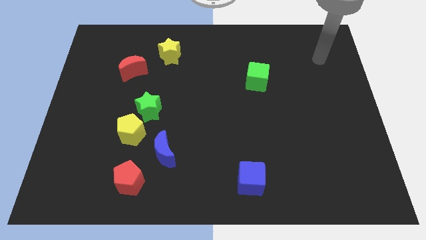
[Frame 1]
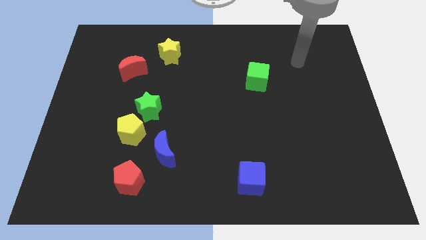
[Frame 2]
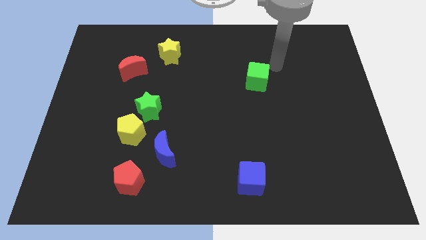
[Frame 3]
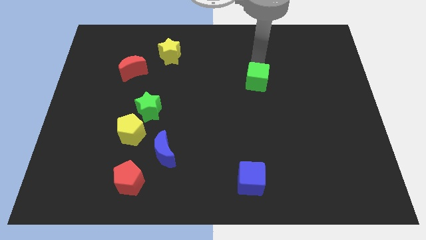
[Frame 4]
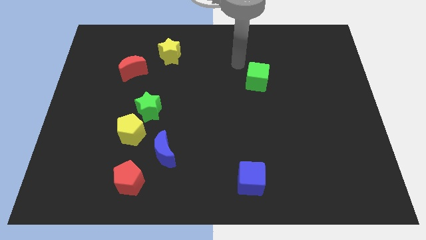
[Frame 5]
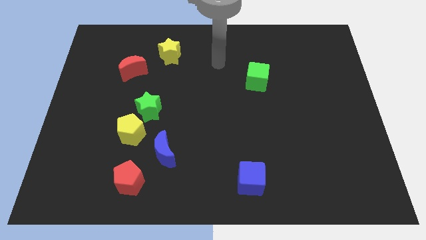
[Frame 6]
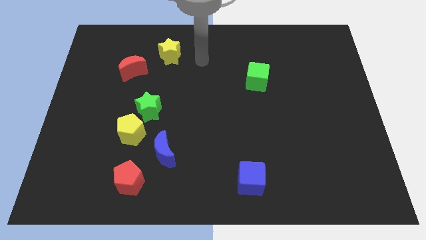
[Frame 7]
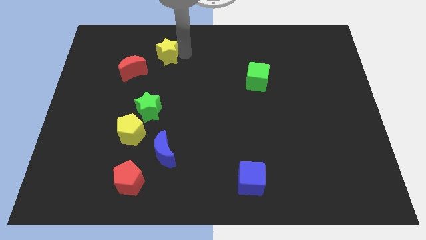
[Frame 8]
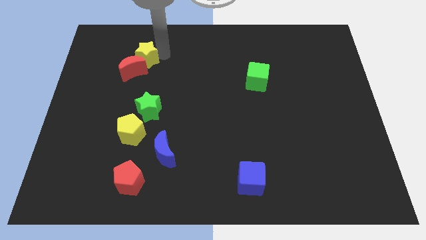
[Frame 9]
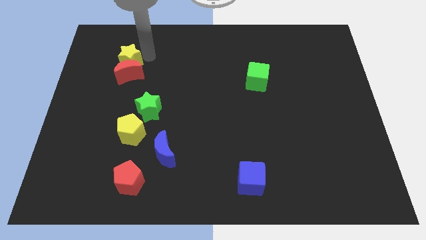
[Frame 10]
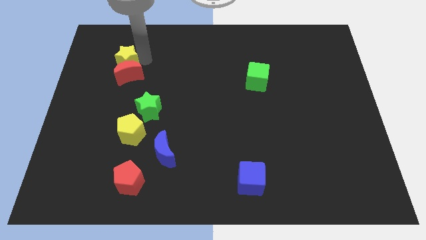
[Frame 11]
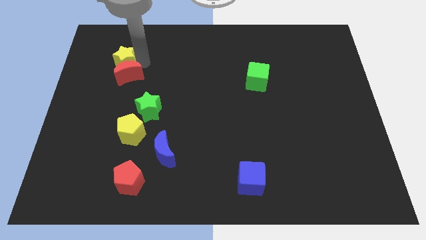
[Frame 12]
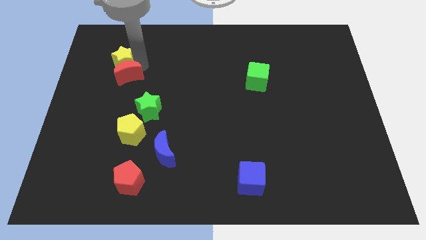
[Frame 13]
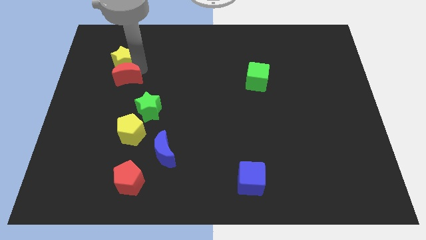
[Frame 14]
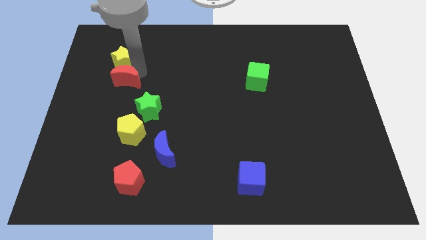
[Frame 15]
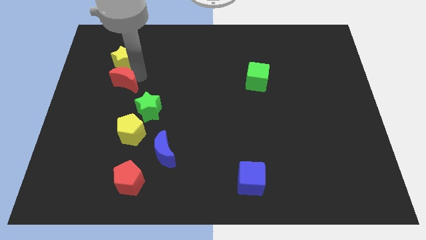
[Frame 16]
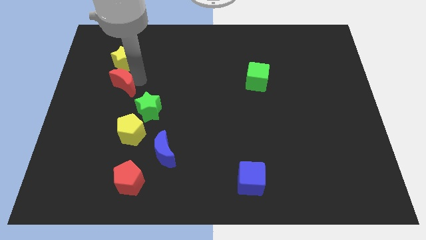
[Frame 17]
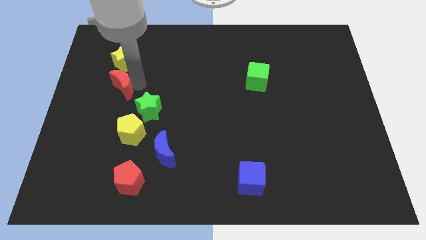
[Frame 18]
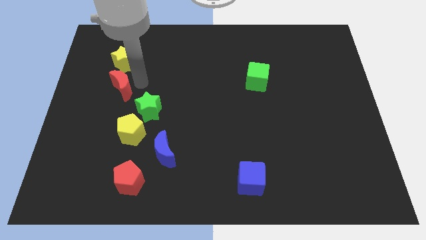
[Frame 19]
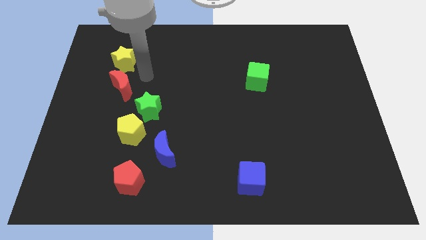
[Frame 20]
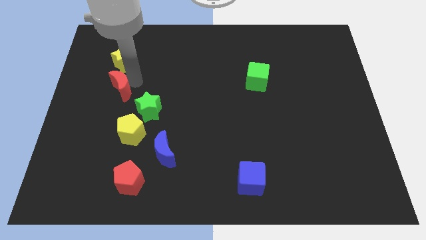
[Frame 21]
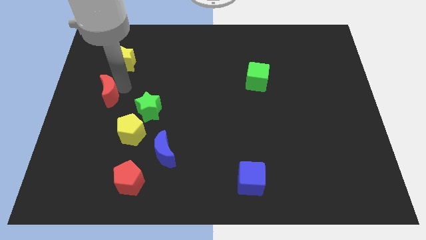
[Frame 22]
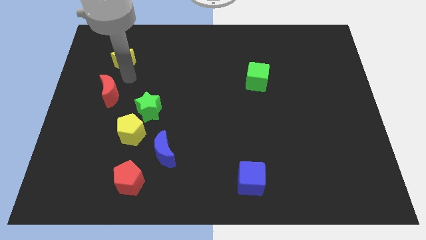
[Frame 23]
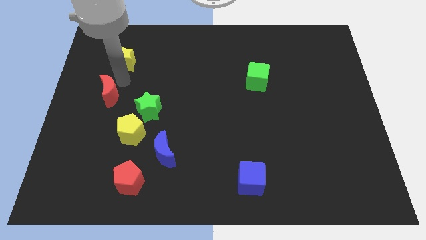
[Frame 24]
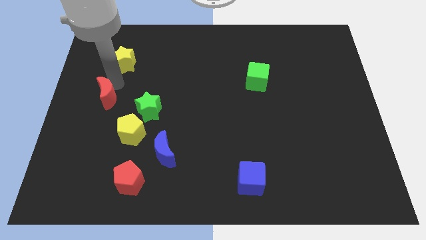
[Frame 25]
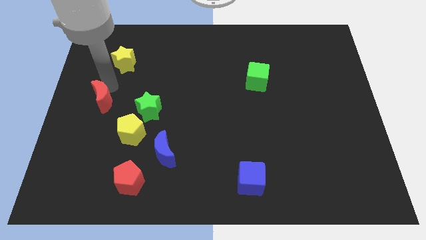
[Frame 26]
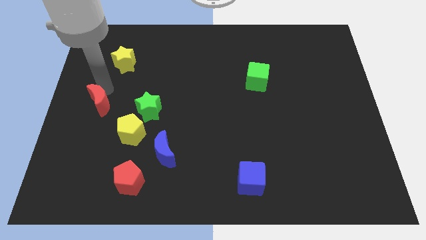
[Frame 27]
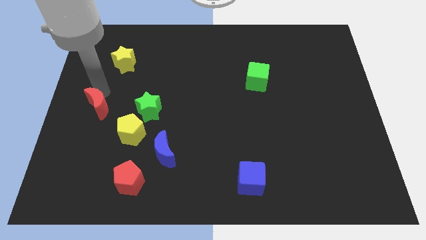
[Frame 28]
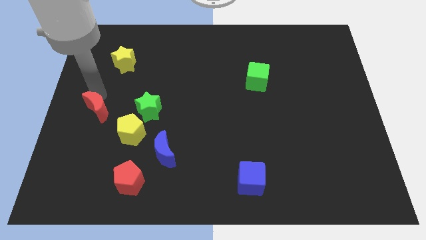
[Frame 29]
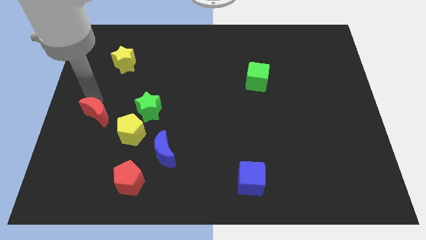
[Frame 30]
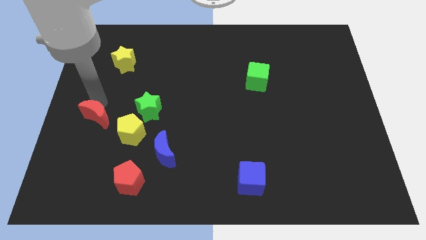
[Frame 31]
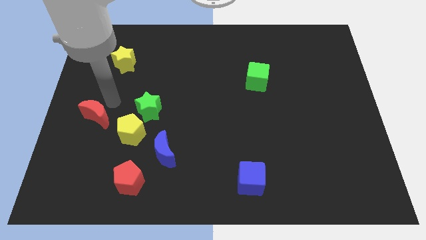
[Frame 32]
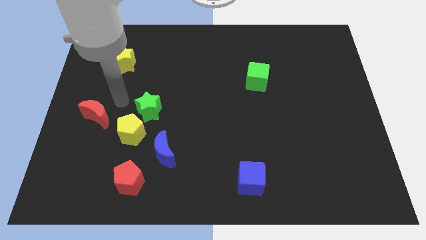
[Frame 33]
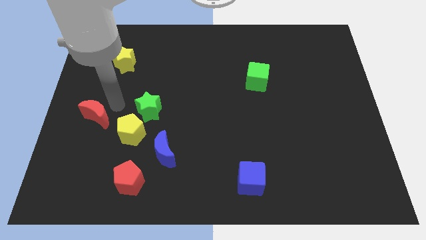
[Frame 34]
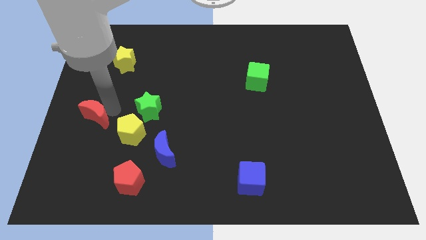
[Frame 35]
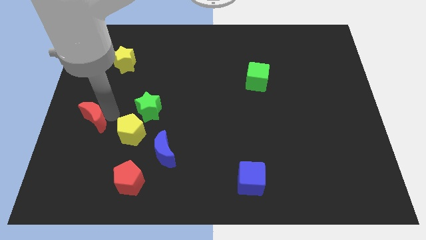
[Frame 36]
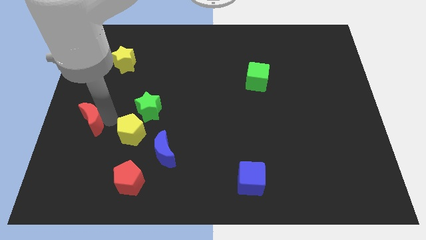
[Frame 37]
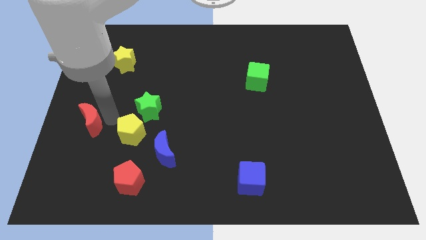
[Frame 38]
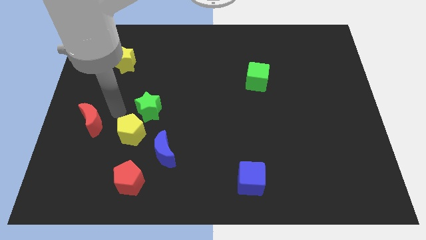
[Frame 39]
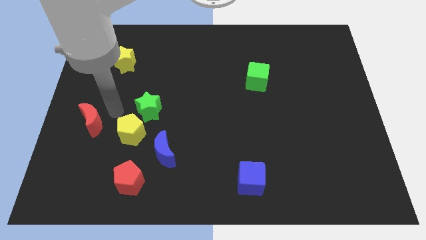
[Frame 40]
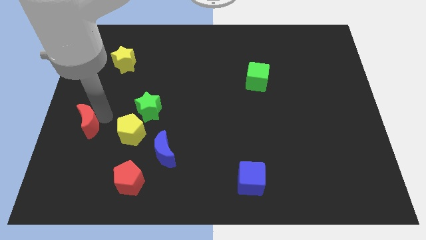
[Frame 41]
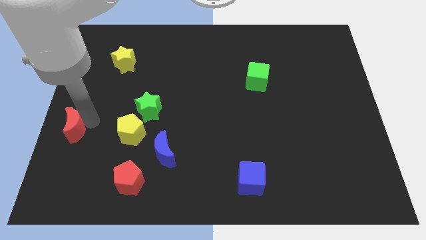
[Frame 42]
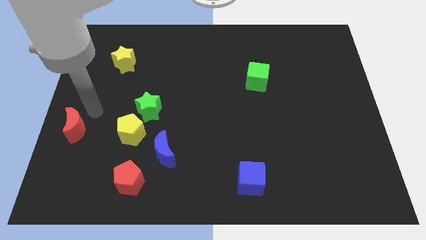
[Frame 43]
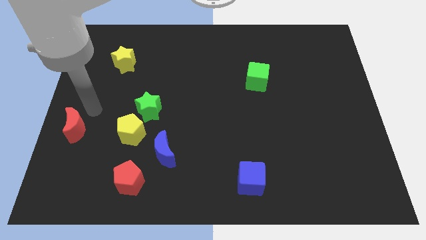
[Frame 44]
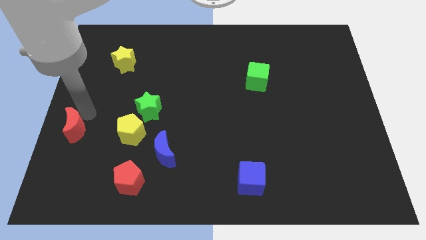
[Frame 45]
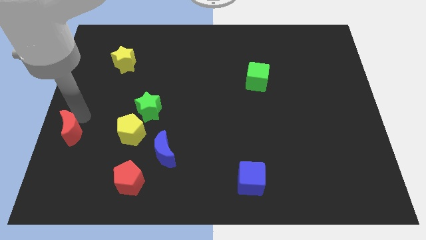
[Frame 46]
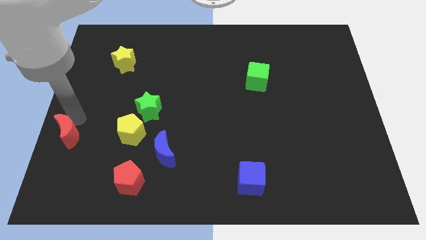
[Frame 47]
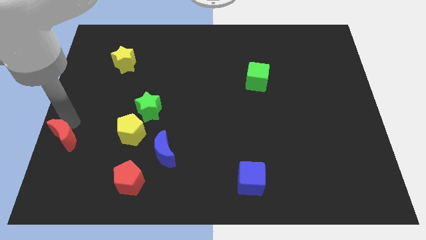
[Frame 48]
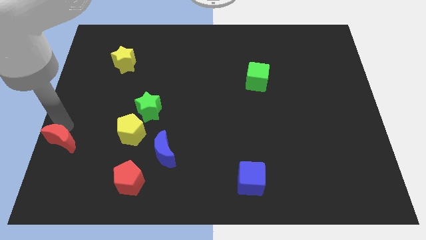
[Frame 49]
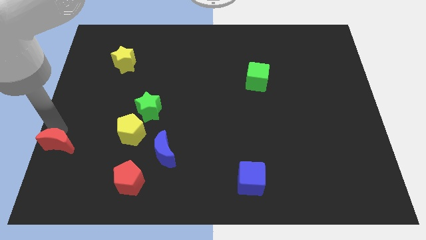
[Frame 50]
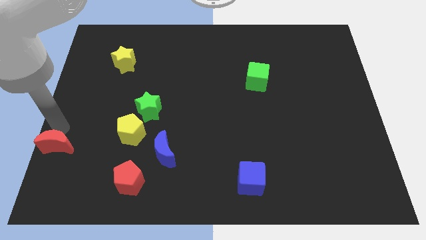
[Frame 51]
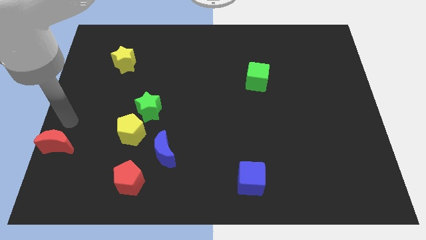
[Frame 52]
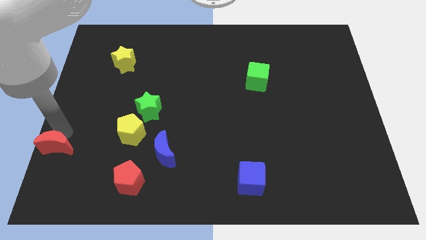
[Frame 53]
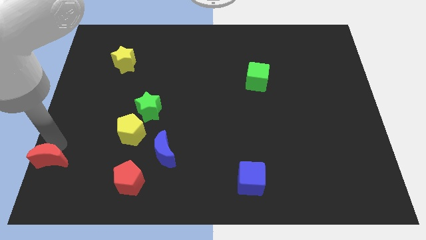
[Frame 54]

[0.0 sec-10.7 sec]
slide the red moon to the lower left corner

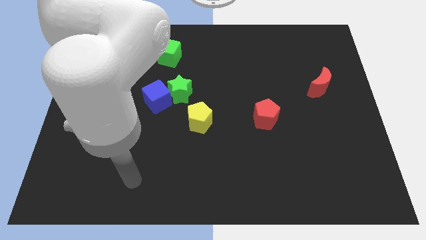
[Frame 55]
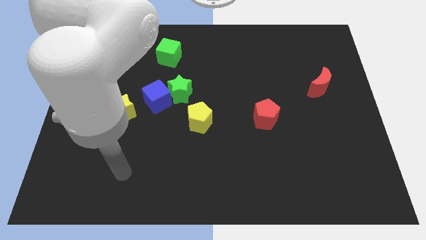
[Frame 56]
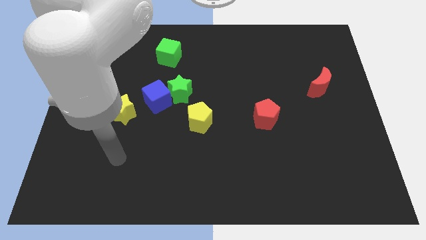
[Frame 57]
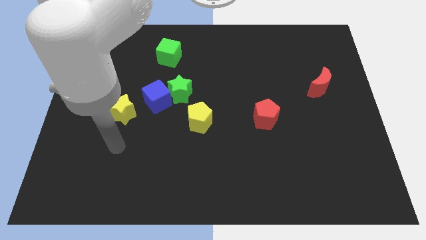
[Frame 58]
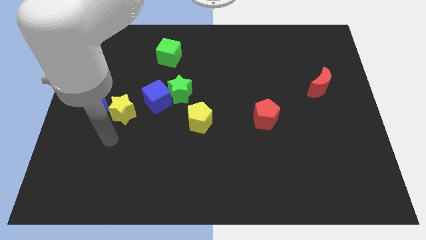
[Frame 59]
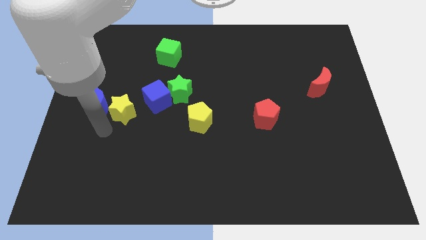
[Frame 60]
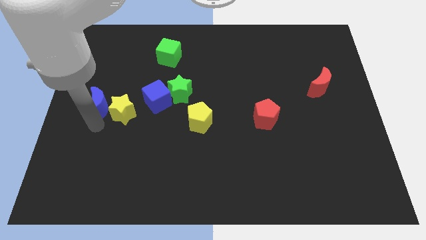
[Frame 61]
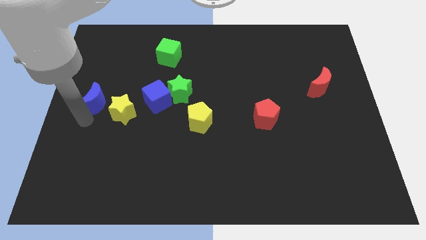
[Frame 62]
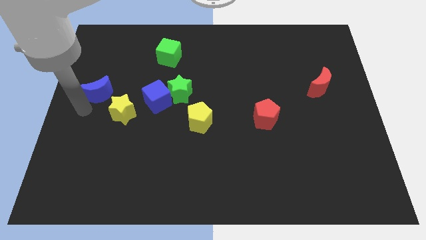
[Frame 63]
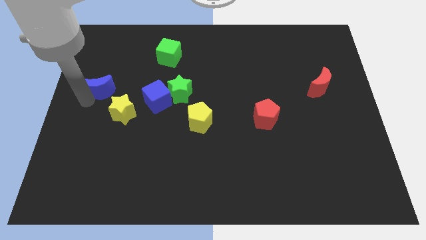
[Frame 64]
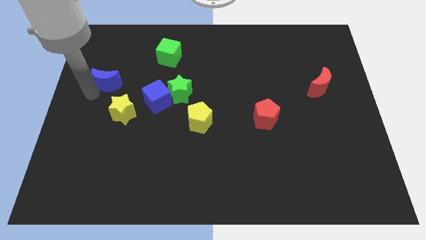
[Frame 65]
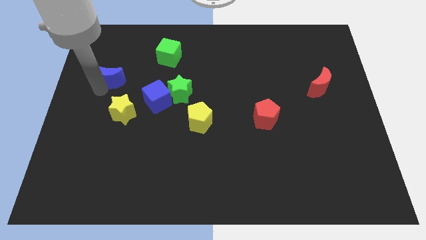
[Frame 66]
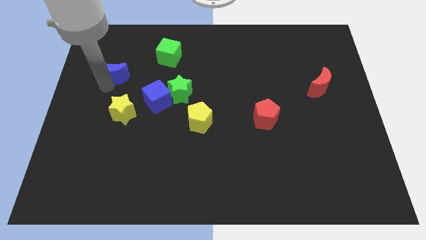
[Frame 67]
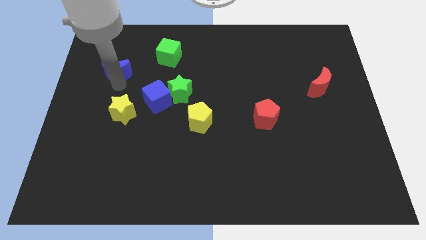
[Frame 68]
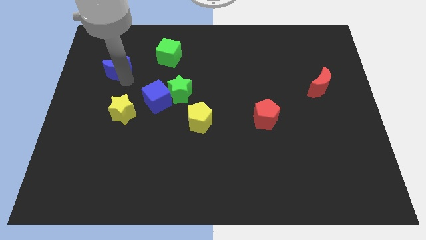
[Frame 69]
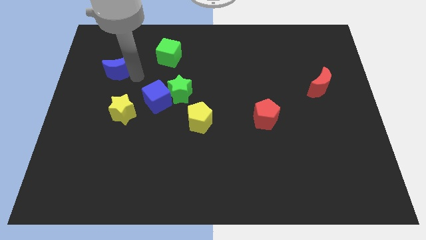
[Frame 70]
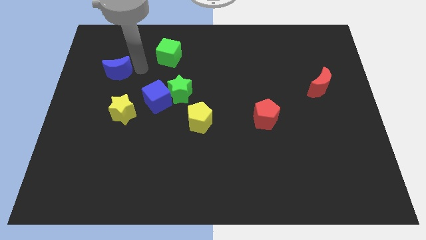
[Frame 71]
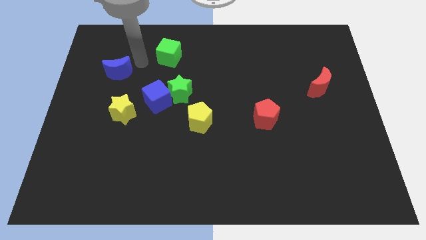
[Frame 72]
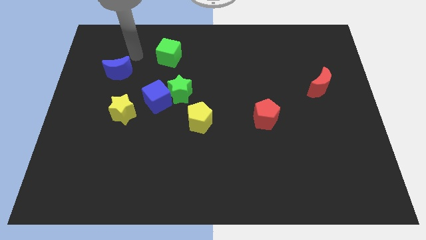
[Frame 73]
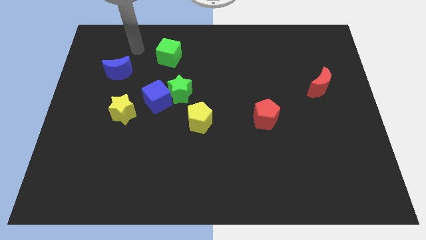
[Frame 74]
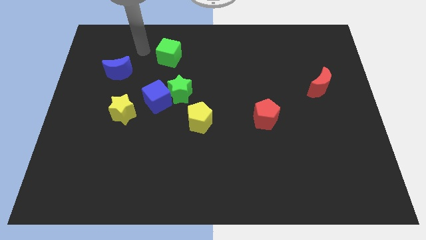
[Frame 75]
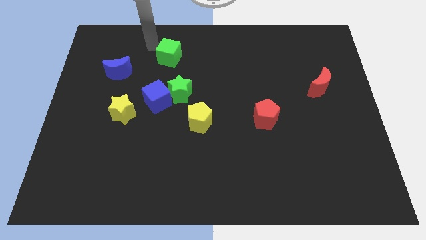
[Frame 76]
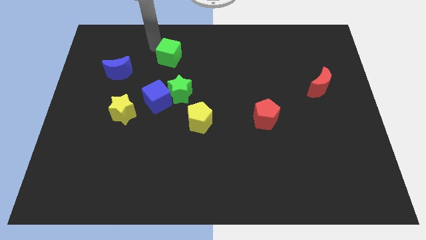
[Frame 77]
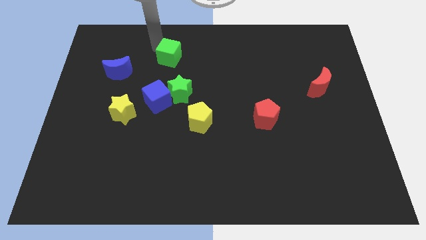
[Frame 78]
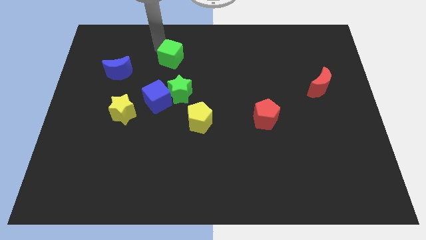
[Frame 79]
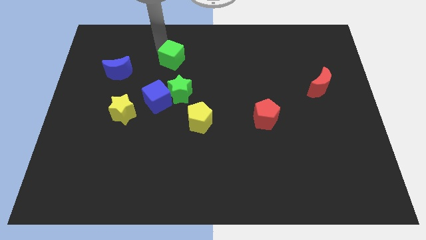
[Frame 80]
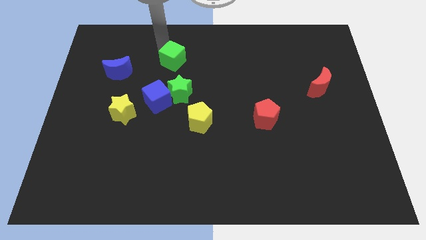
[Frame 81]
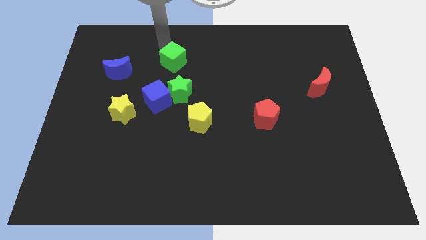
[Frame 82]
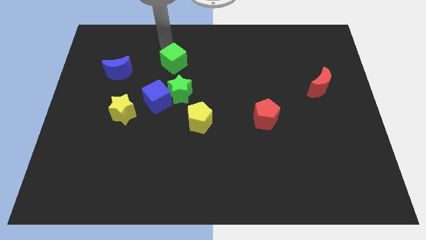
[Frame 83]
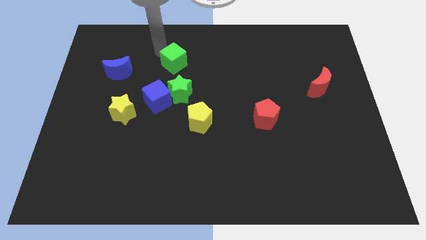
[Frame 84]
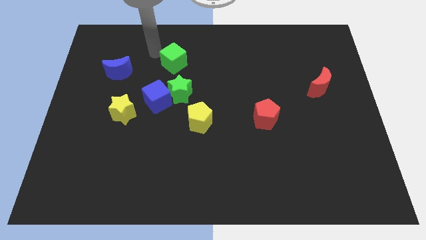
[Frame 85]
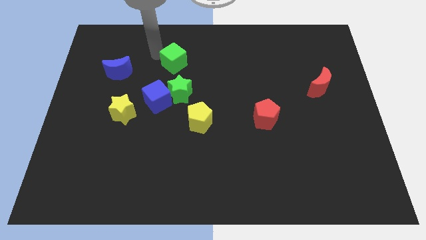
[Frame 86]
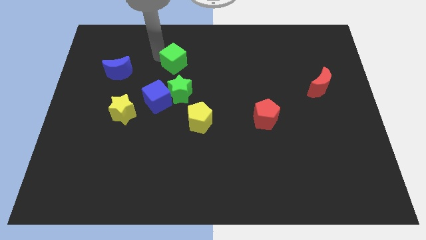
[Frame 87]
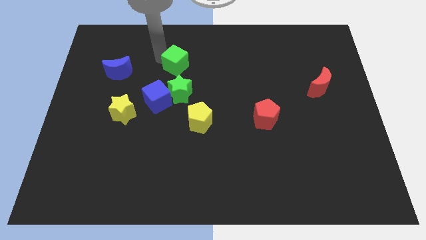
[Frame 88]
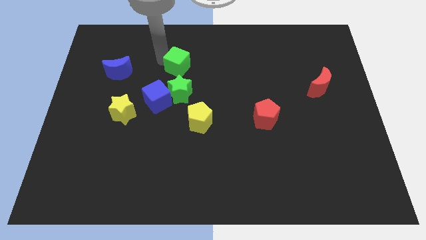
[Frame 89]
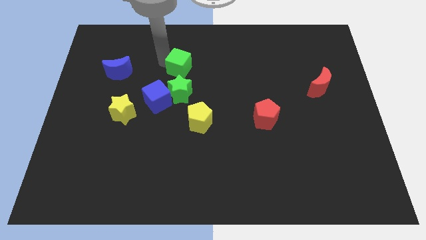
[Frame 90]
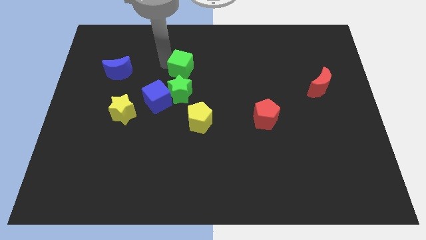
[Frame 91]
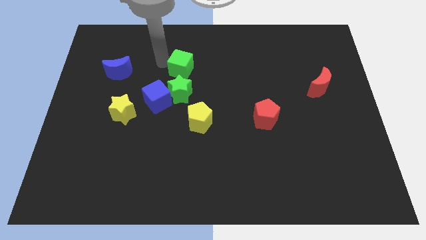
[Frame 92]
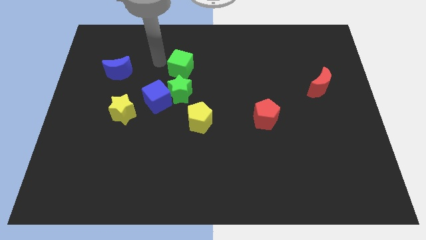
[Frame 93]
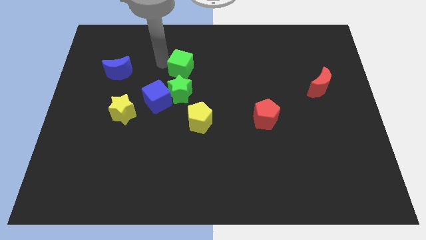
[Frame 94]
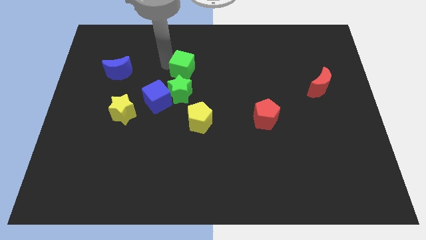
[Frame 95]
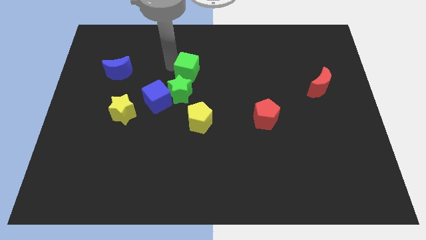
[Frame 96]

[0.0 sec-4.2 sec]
put the green cube to the center
